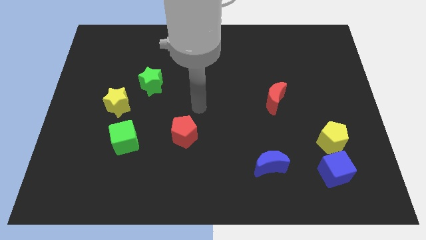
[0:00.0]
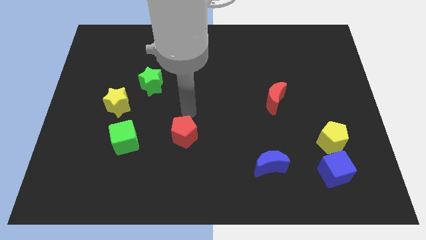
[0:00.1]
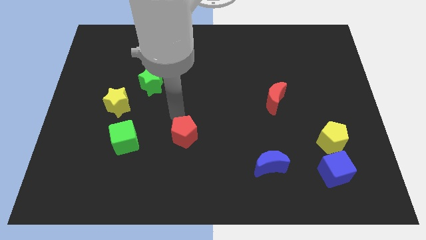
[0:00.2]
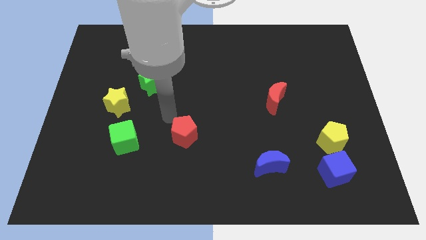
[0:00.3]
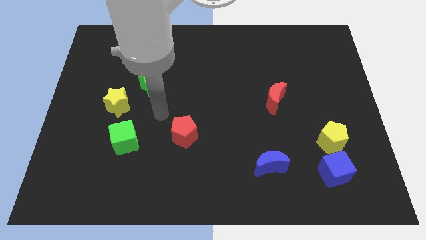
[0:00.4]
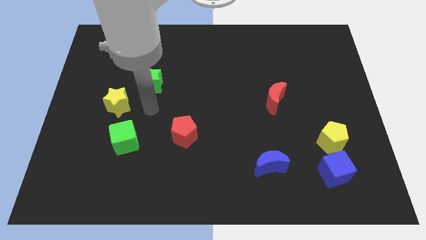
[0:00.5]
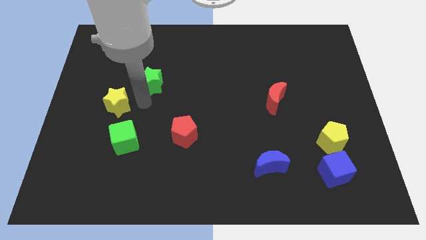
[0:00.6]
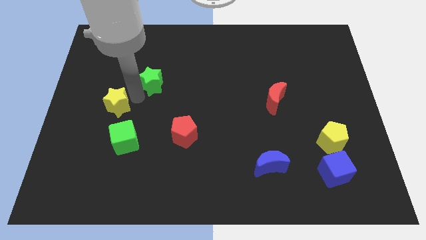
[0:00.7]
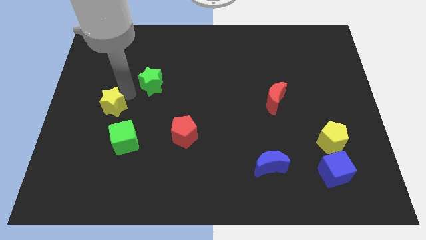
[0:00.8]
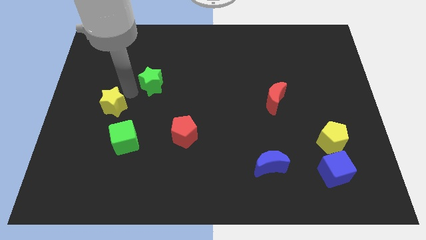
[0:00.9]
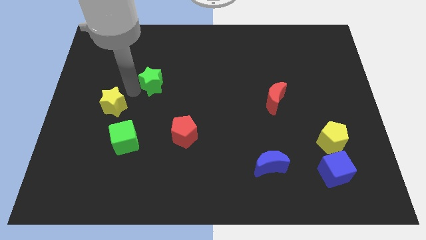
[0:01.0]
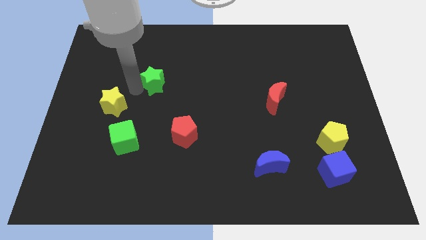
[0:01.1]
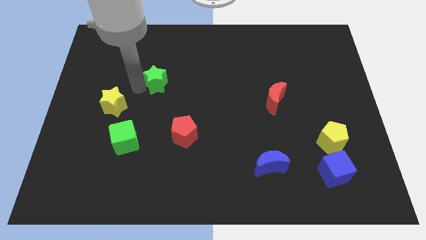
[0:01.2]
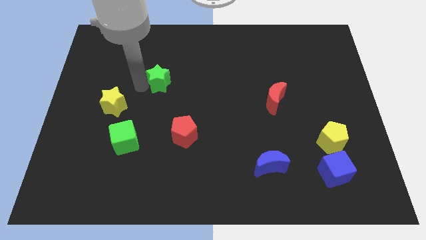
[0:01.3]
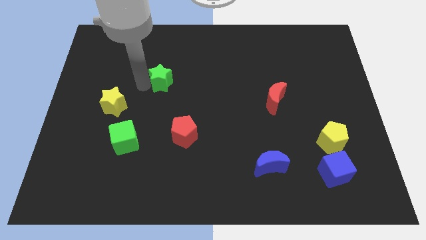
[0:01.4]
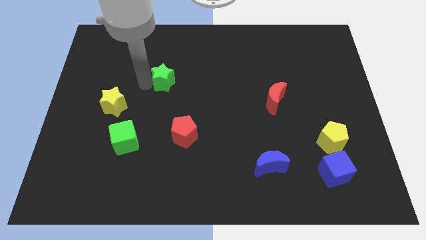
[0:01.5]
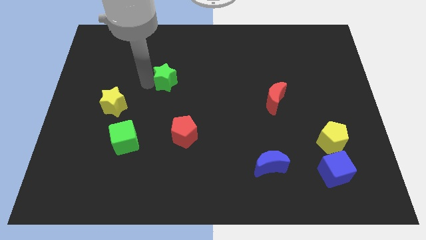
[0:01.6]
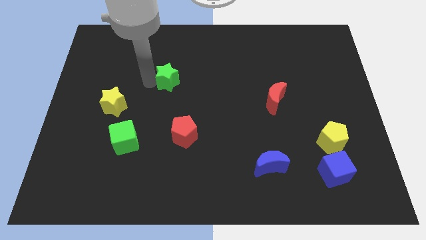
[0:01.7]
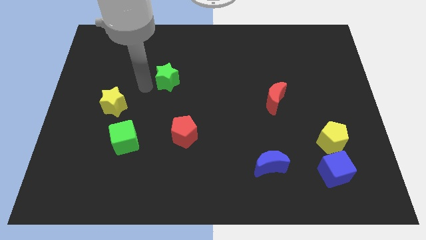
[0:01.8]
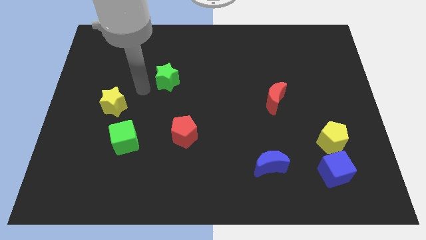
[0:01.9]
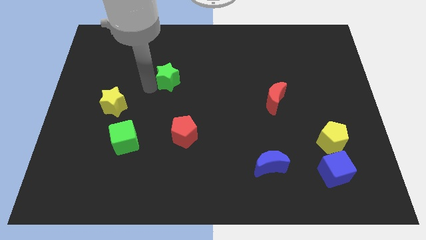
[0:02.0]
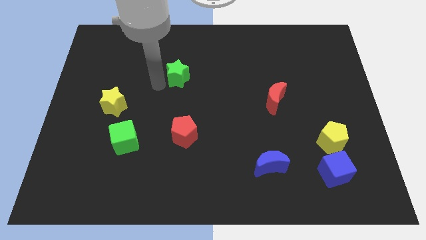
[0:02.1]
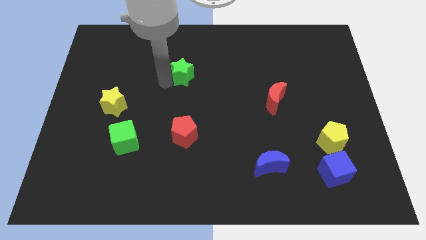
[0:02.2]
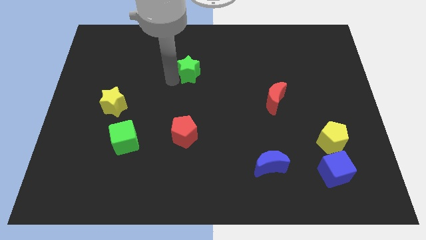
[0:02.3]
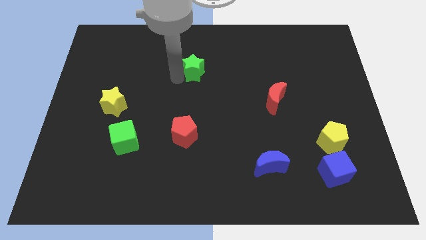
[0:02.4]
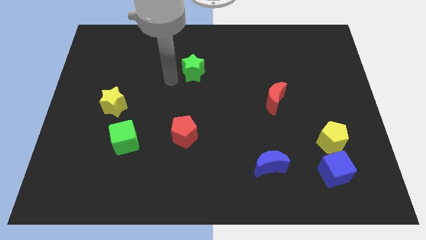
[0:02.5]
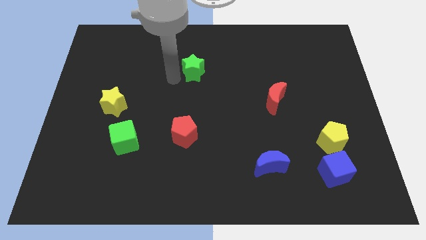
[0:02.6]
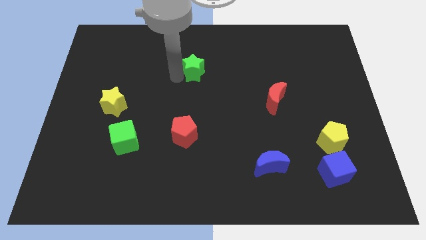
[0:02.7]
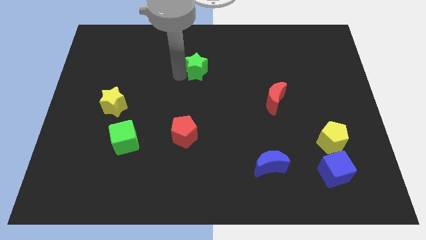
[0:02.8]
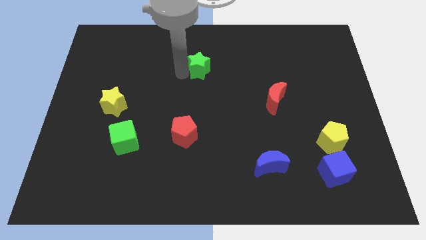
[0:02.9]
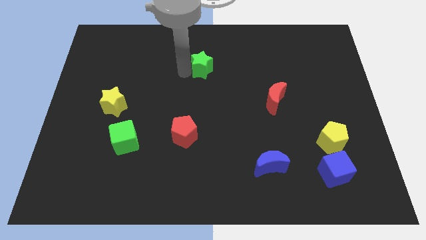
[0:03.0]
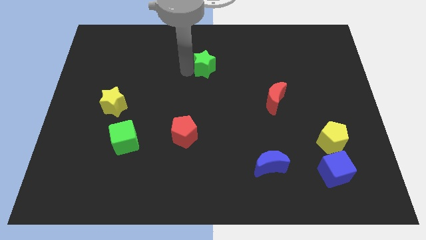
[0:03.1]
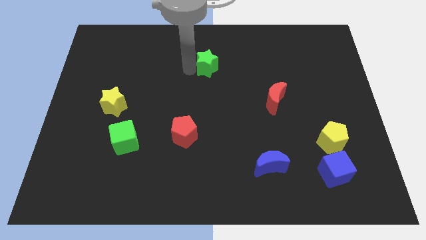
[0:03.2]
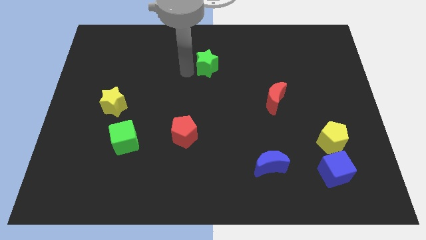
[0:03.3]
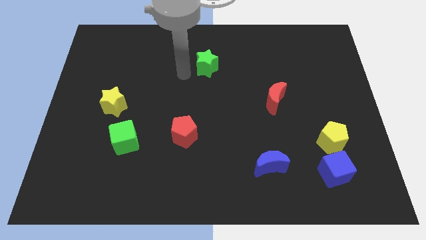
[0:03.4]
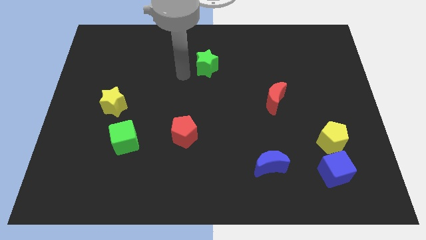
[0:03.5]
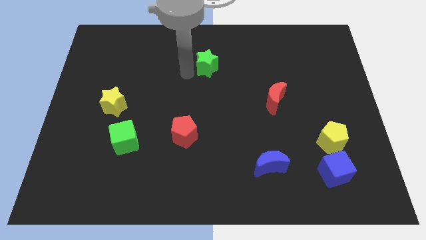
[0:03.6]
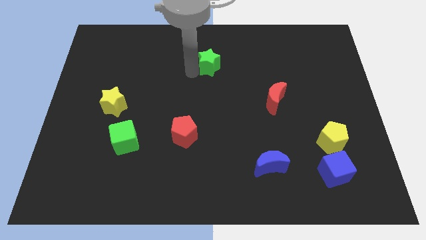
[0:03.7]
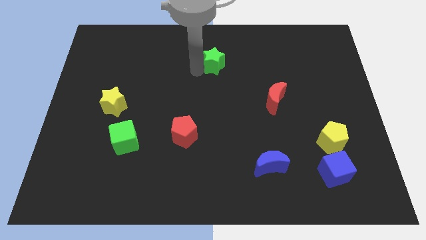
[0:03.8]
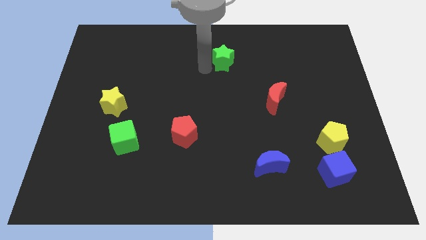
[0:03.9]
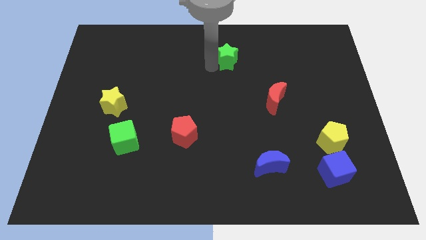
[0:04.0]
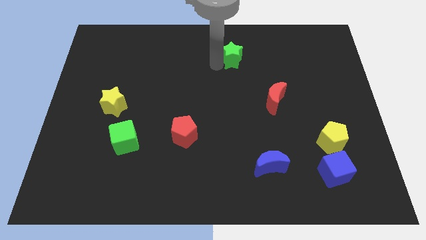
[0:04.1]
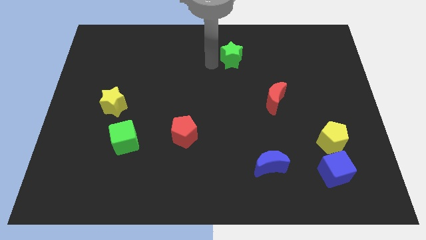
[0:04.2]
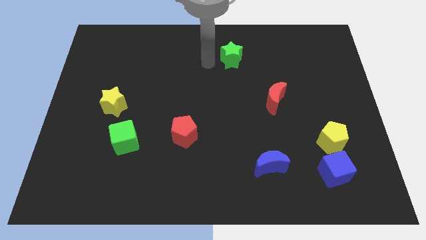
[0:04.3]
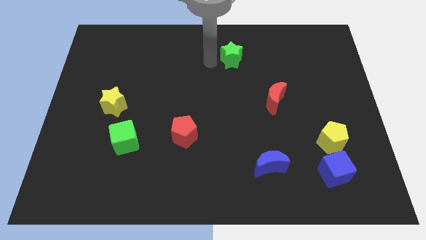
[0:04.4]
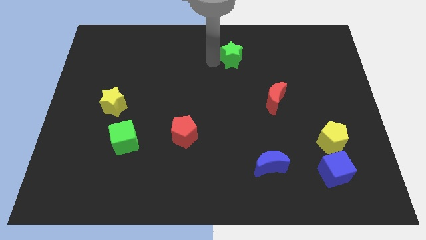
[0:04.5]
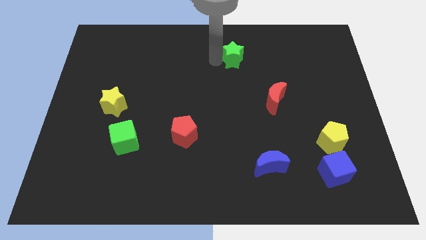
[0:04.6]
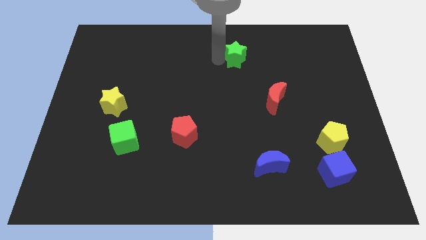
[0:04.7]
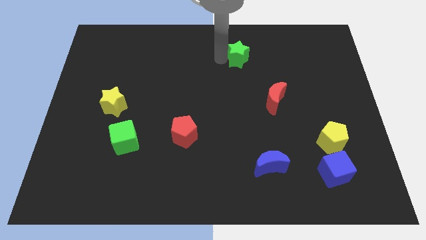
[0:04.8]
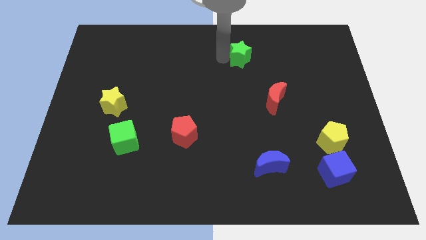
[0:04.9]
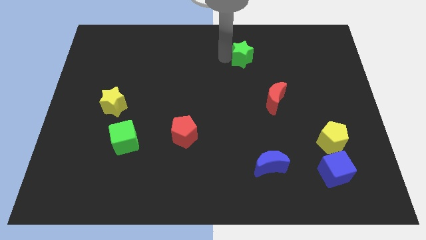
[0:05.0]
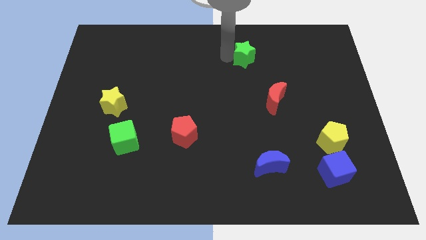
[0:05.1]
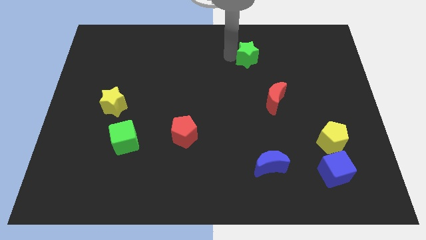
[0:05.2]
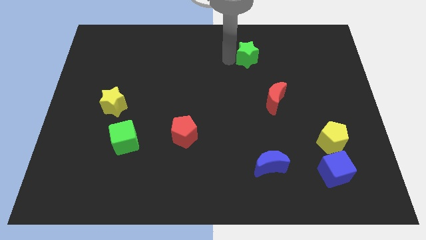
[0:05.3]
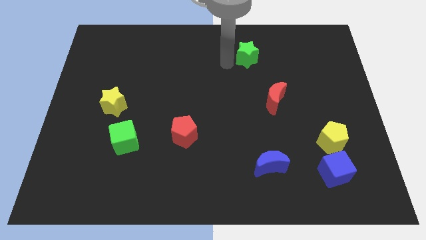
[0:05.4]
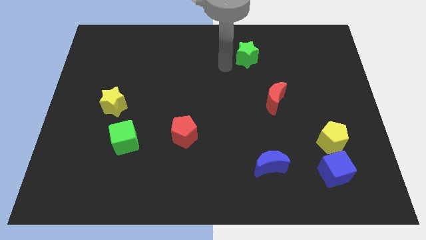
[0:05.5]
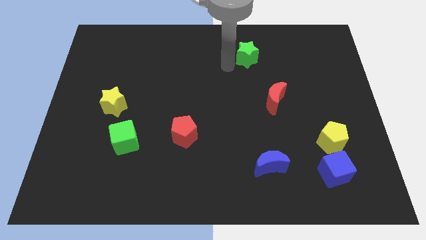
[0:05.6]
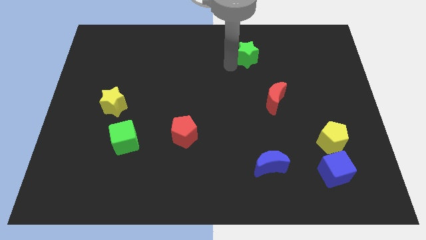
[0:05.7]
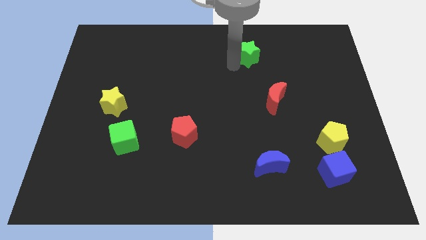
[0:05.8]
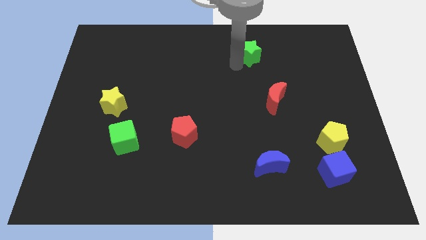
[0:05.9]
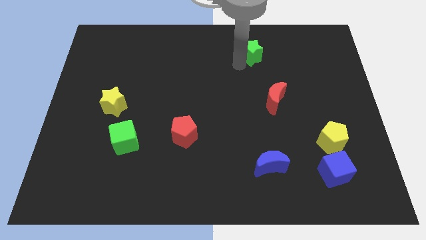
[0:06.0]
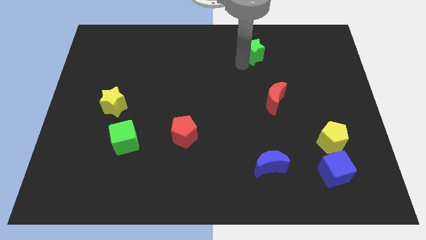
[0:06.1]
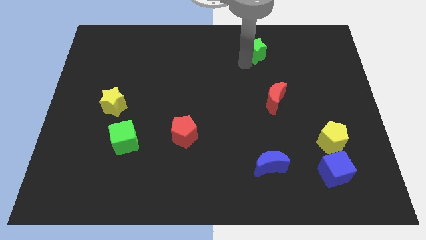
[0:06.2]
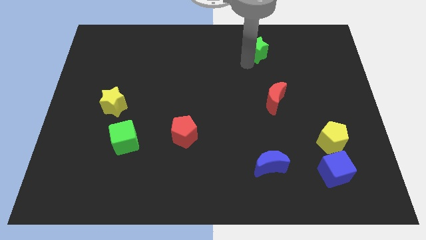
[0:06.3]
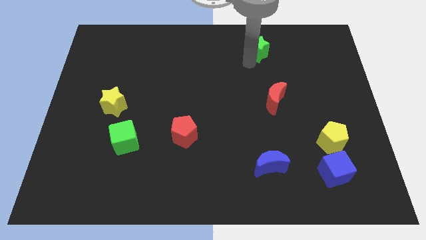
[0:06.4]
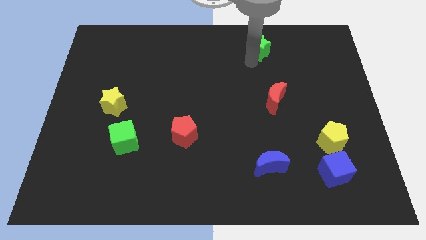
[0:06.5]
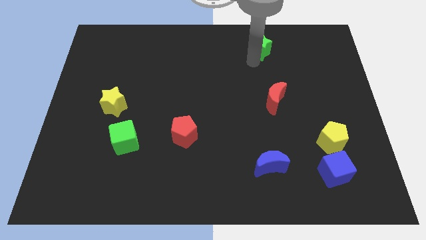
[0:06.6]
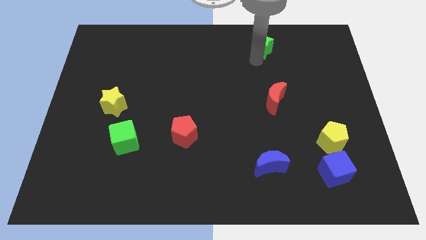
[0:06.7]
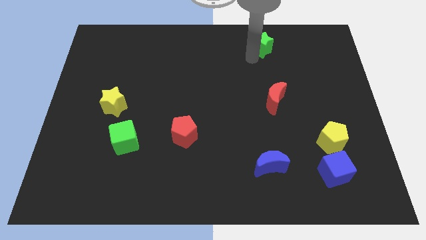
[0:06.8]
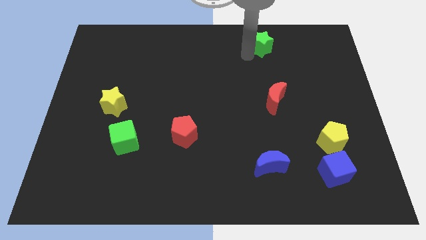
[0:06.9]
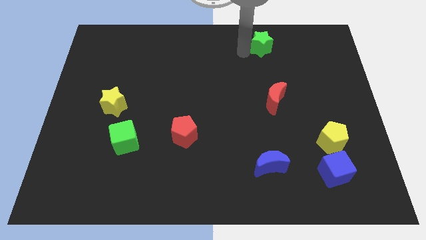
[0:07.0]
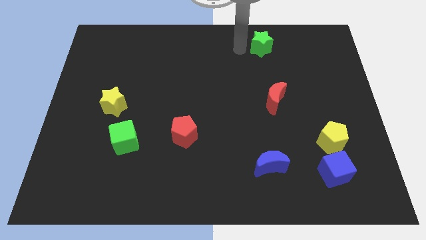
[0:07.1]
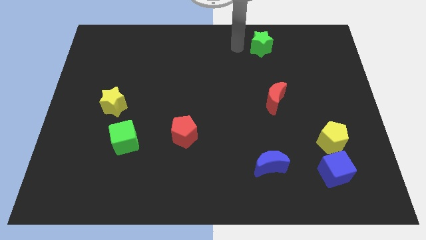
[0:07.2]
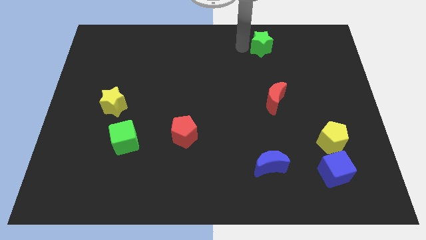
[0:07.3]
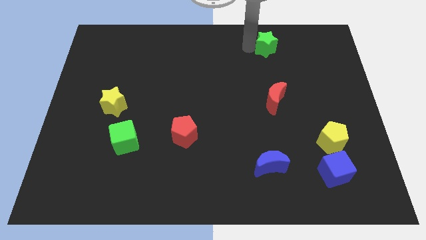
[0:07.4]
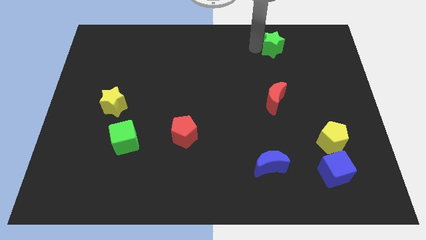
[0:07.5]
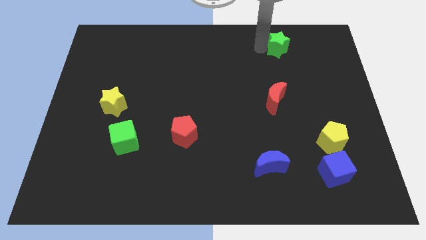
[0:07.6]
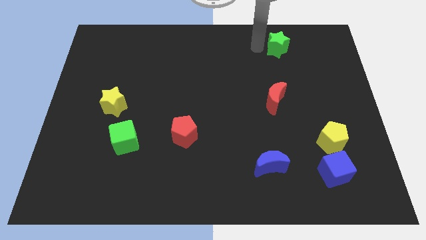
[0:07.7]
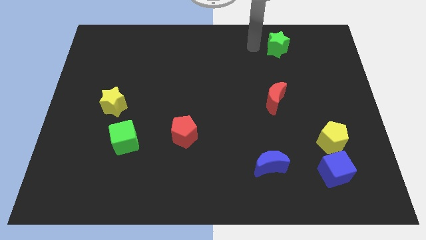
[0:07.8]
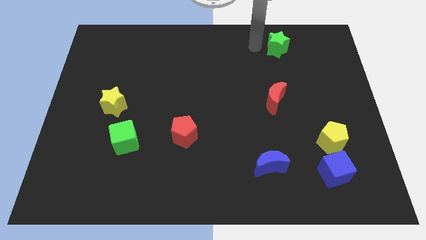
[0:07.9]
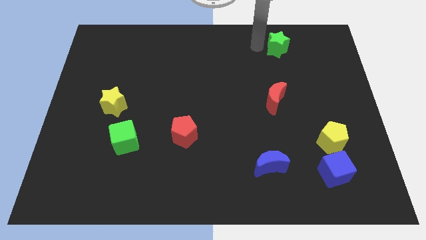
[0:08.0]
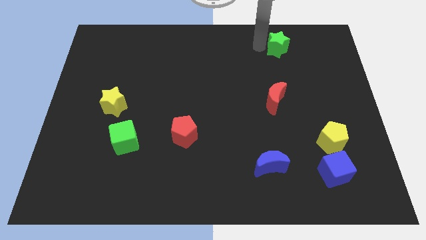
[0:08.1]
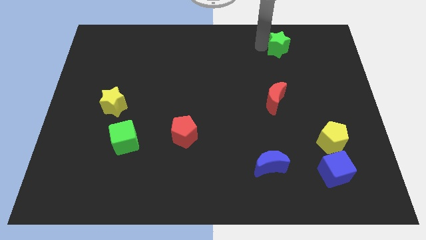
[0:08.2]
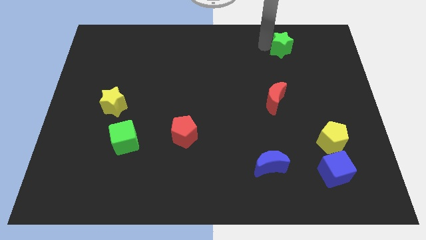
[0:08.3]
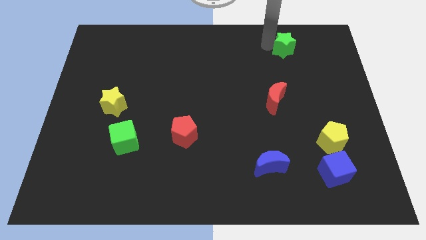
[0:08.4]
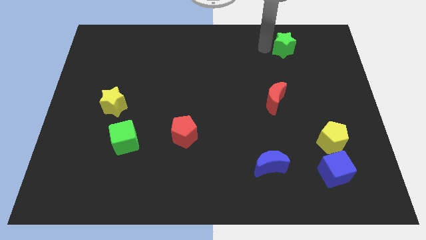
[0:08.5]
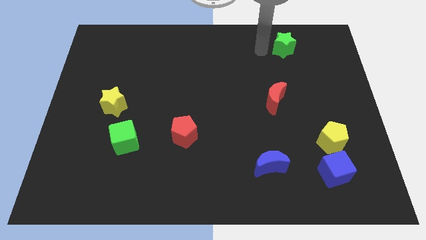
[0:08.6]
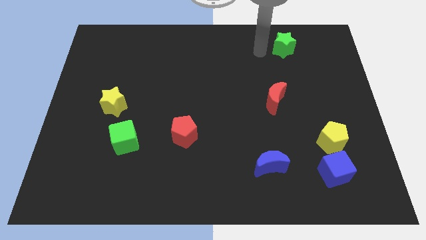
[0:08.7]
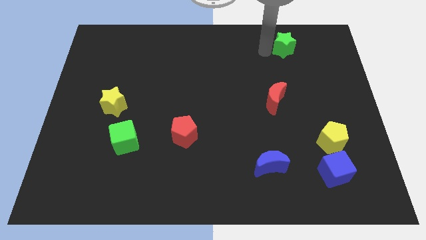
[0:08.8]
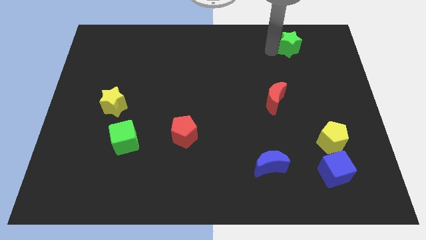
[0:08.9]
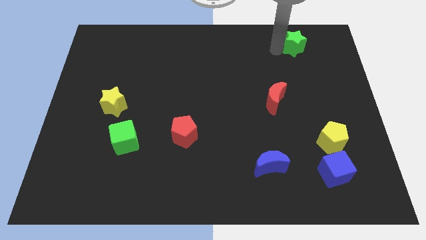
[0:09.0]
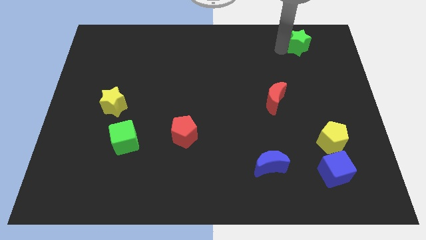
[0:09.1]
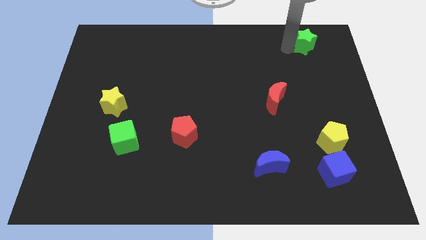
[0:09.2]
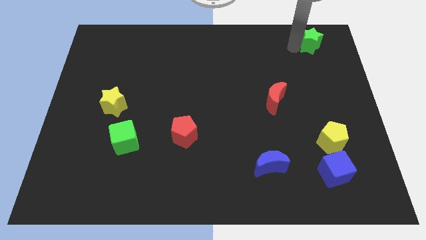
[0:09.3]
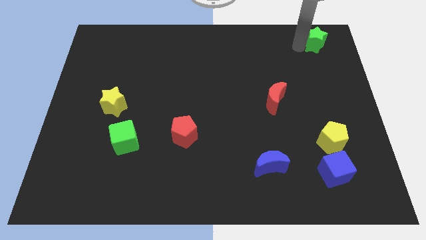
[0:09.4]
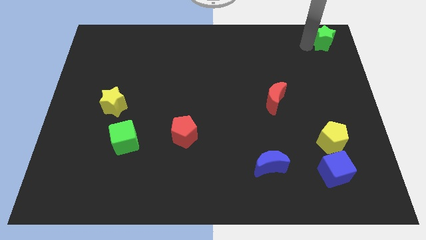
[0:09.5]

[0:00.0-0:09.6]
slide the green star to the top right of the board
